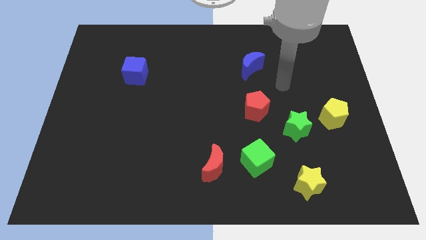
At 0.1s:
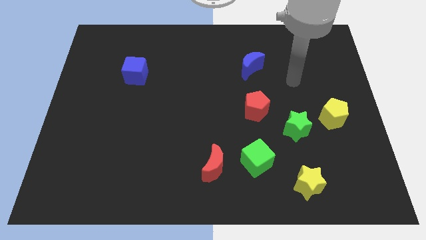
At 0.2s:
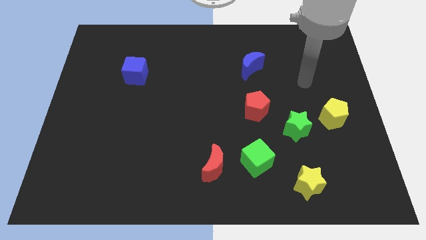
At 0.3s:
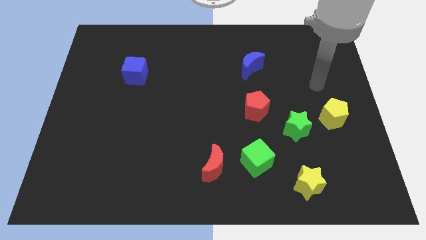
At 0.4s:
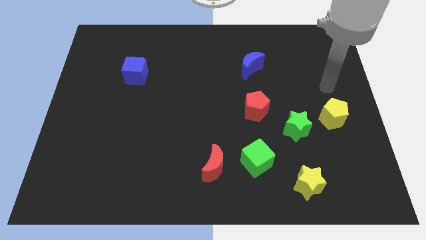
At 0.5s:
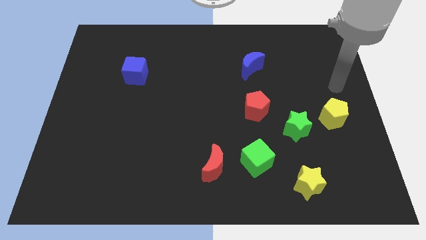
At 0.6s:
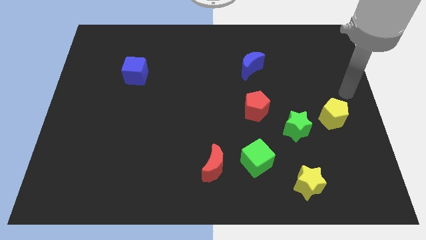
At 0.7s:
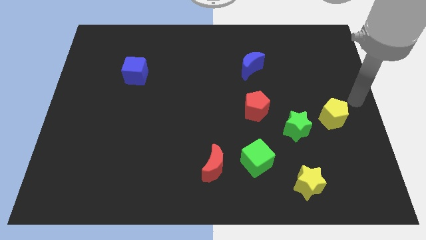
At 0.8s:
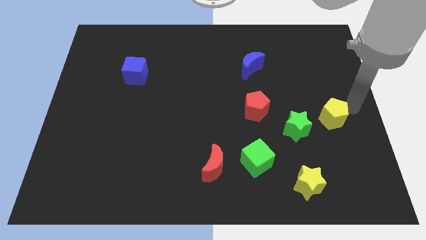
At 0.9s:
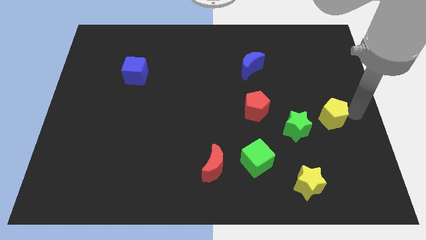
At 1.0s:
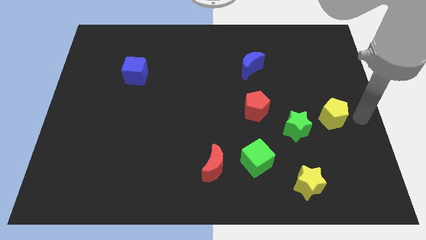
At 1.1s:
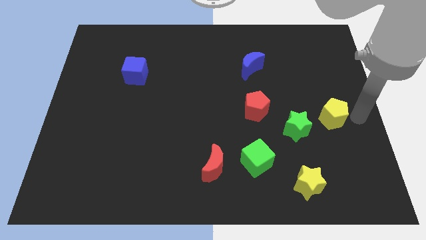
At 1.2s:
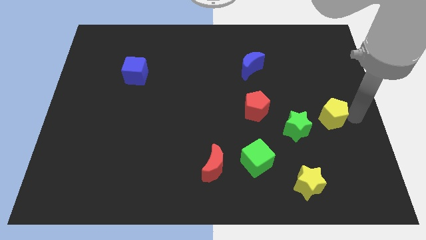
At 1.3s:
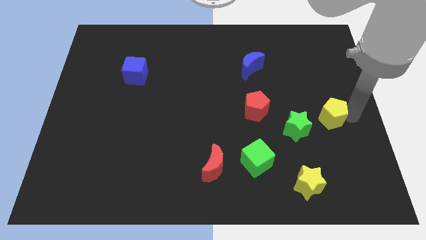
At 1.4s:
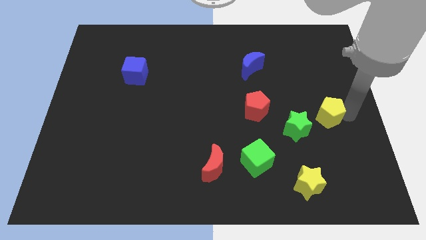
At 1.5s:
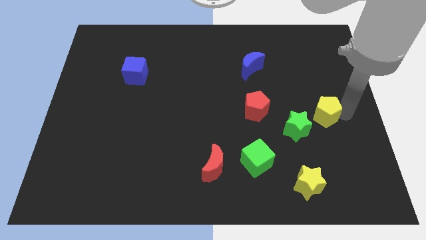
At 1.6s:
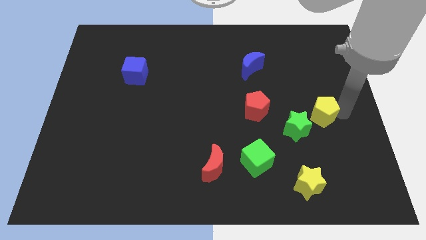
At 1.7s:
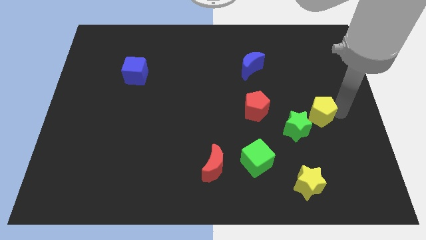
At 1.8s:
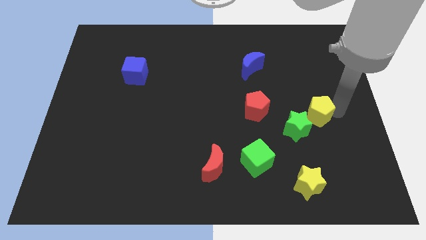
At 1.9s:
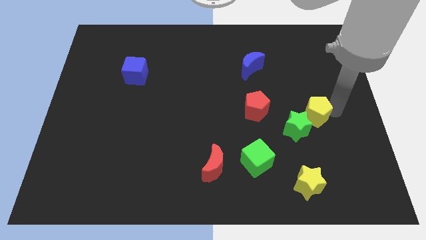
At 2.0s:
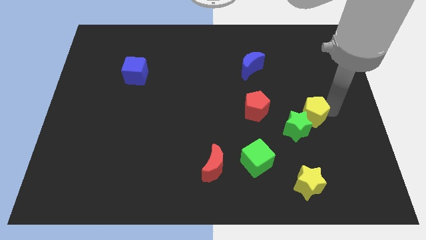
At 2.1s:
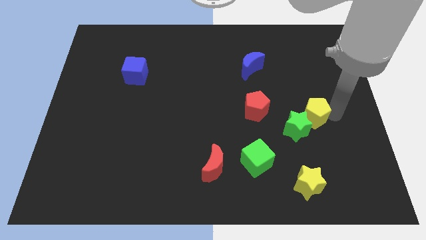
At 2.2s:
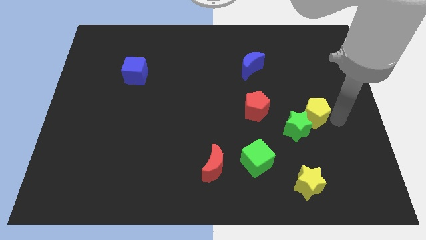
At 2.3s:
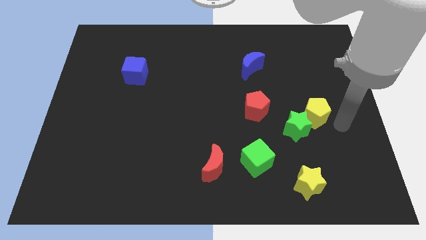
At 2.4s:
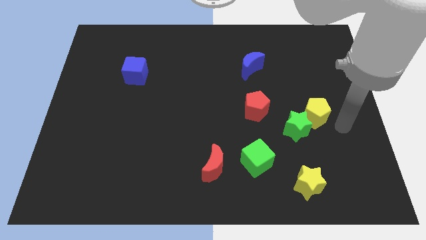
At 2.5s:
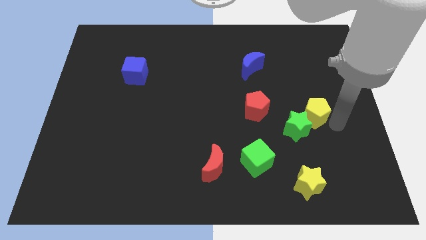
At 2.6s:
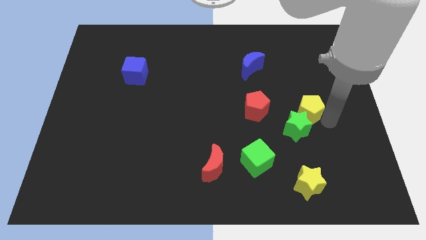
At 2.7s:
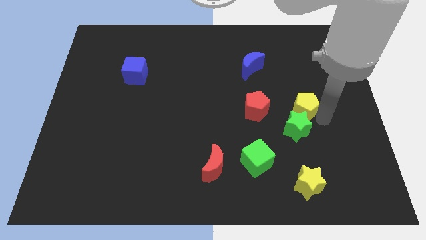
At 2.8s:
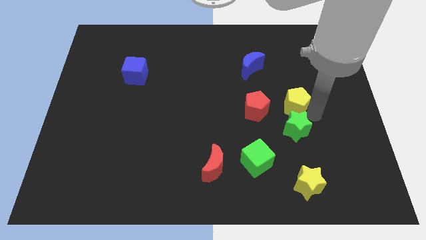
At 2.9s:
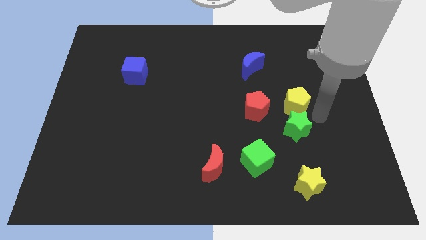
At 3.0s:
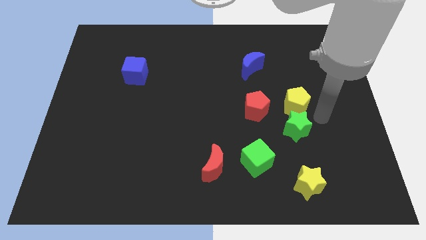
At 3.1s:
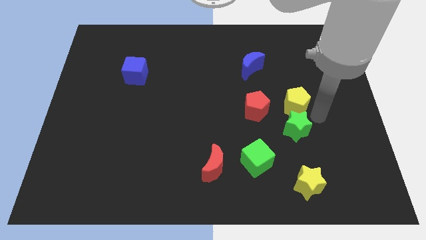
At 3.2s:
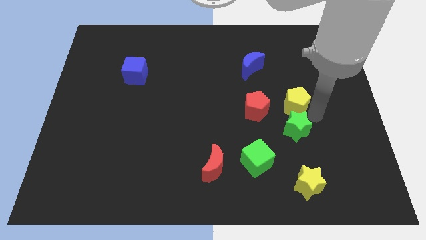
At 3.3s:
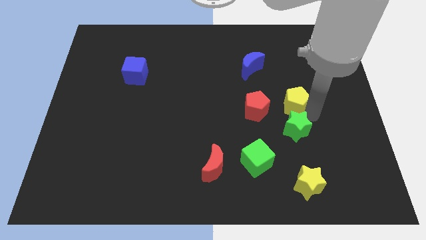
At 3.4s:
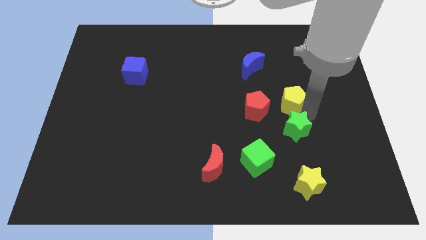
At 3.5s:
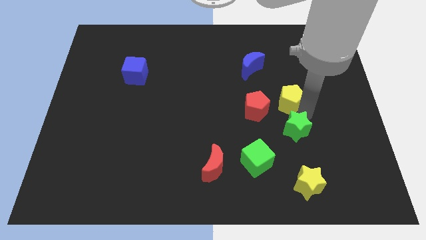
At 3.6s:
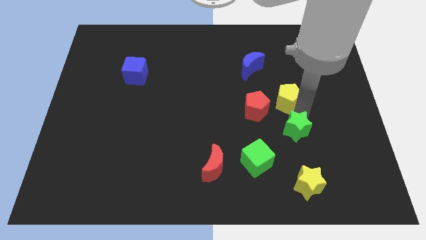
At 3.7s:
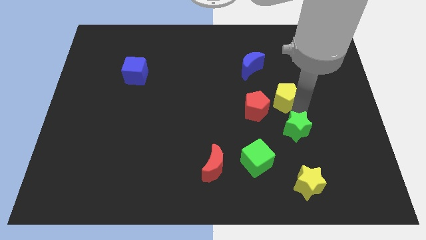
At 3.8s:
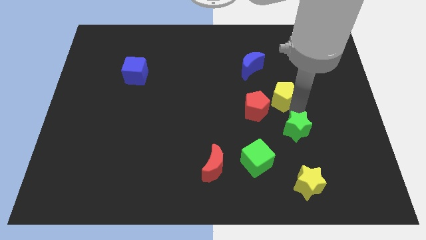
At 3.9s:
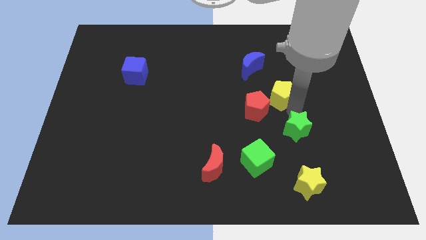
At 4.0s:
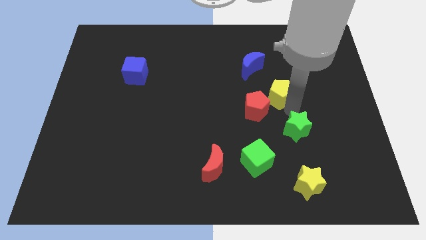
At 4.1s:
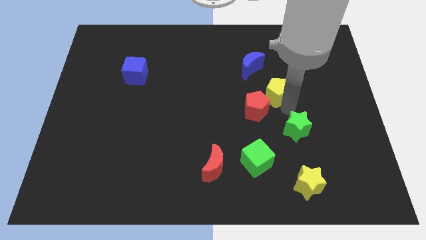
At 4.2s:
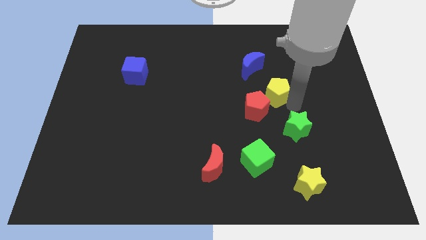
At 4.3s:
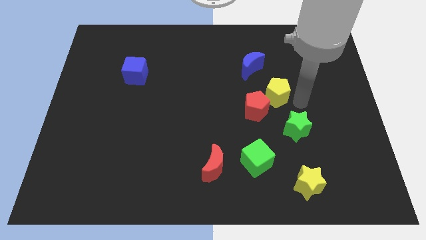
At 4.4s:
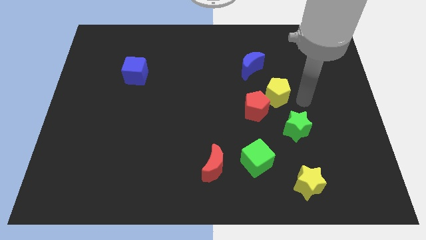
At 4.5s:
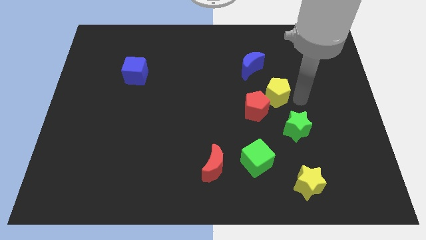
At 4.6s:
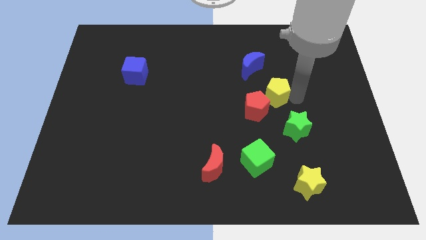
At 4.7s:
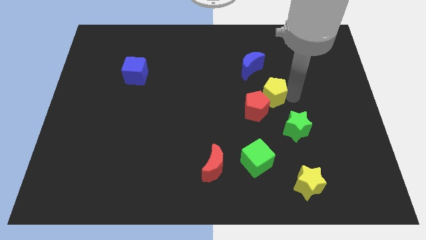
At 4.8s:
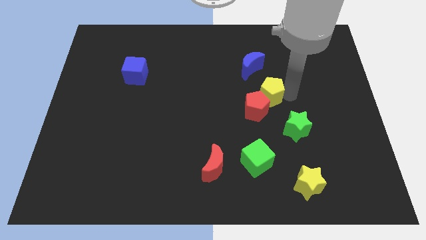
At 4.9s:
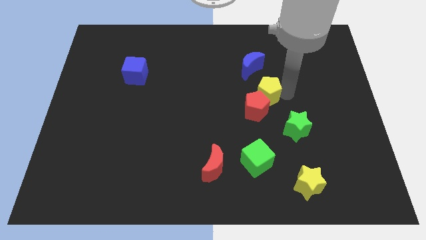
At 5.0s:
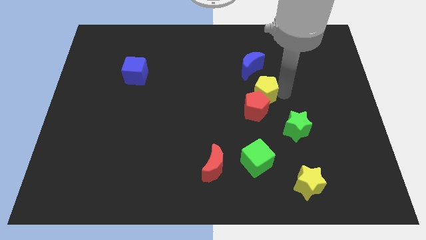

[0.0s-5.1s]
put the yellow pentagon to the center

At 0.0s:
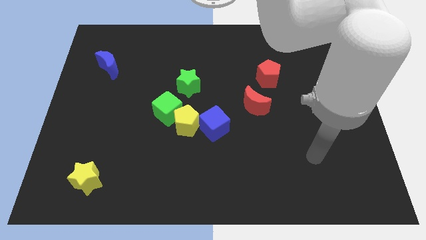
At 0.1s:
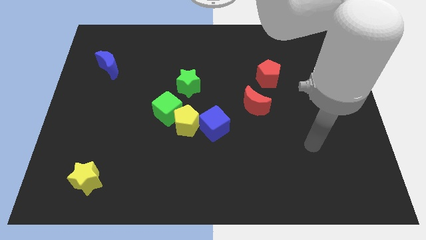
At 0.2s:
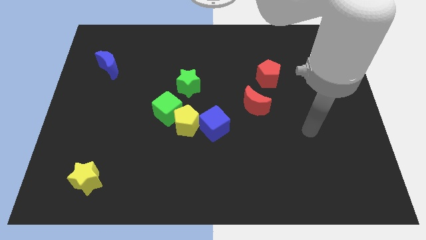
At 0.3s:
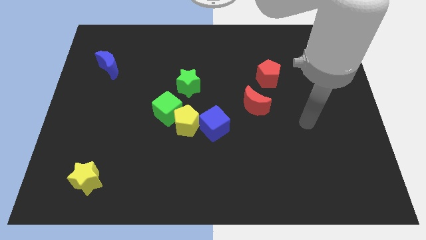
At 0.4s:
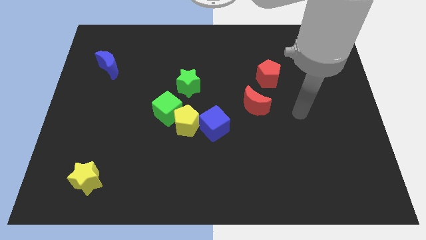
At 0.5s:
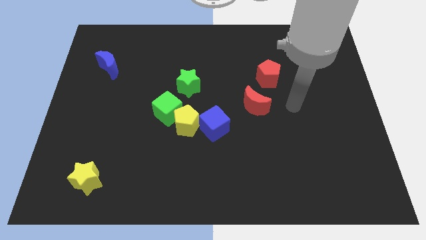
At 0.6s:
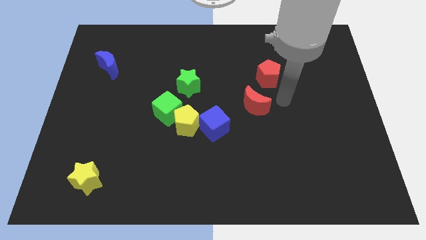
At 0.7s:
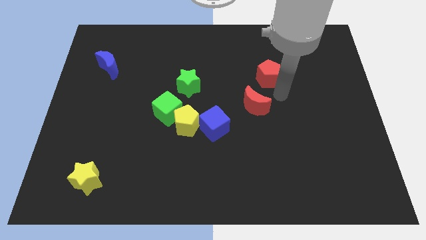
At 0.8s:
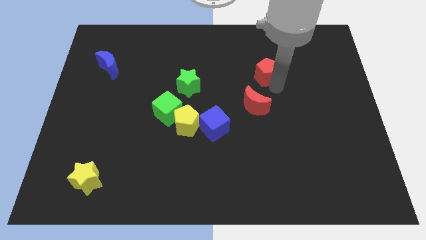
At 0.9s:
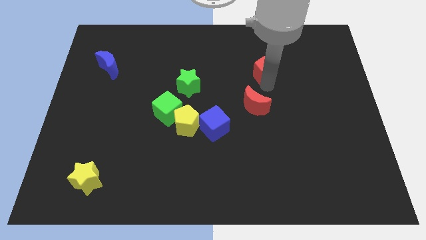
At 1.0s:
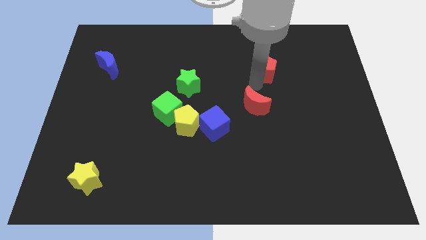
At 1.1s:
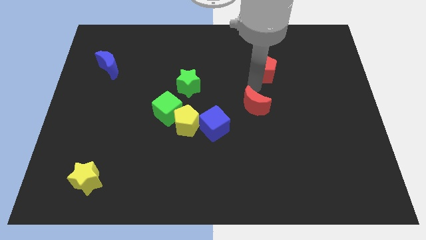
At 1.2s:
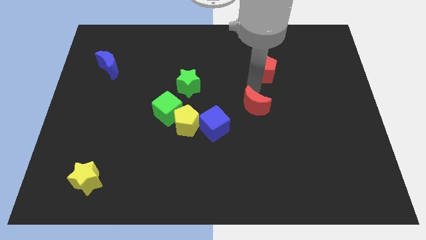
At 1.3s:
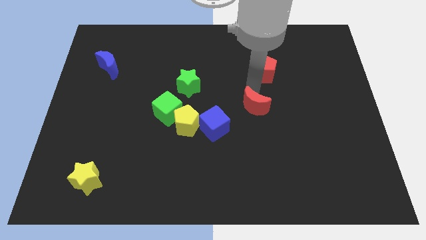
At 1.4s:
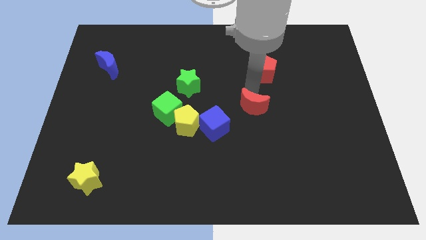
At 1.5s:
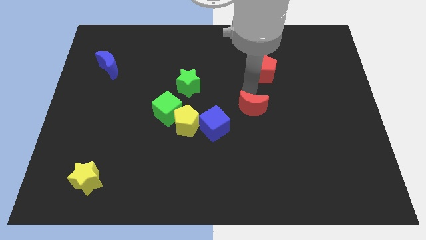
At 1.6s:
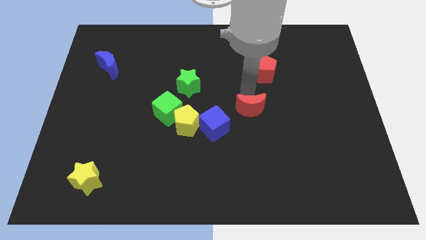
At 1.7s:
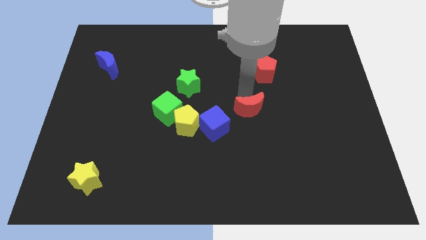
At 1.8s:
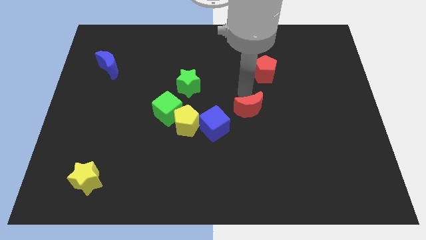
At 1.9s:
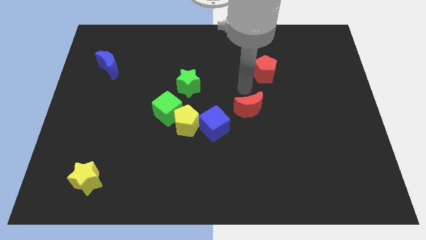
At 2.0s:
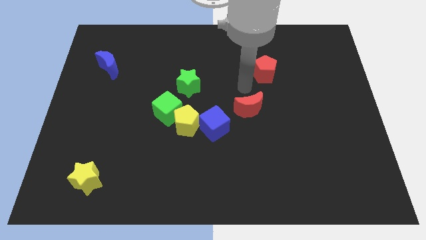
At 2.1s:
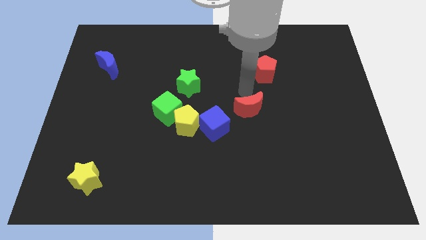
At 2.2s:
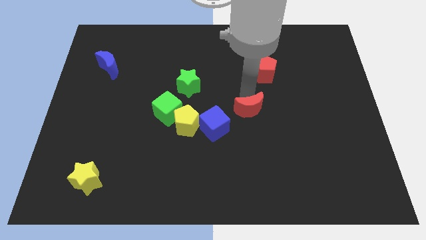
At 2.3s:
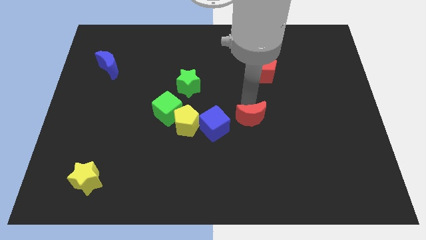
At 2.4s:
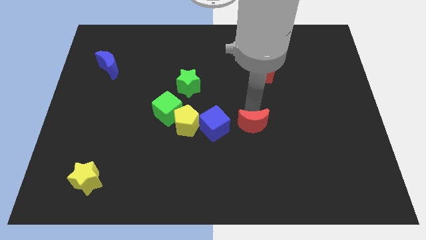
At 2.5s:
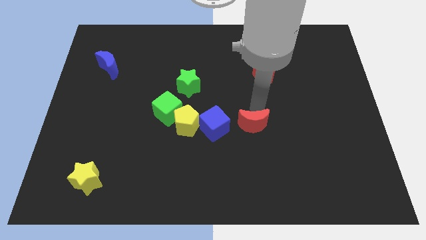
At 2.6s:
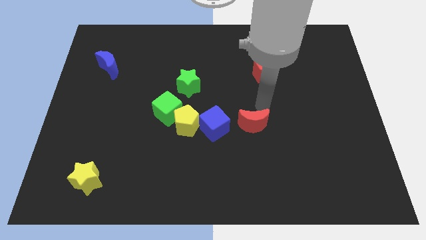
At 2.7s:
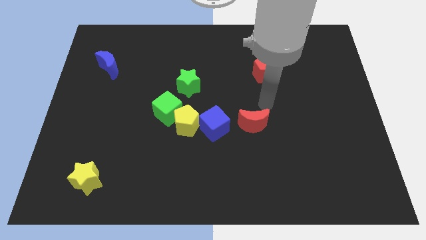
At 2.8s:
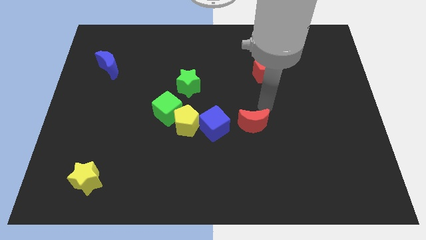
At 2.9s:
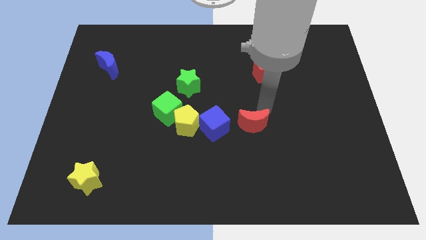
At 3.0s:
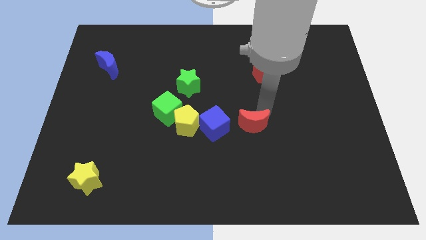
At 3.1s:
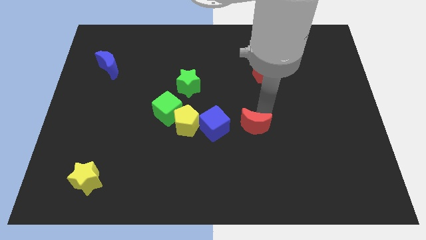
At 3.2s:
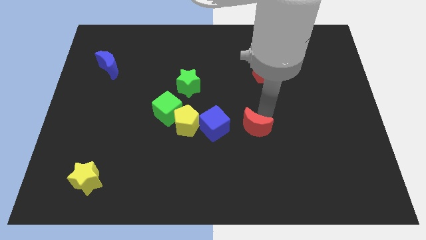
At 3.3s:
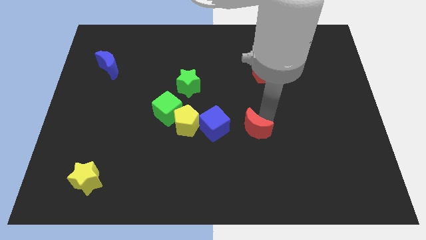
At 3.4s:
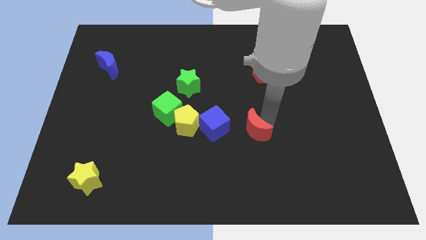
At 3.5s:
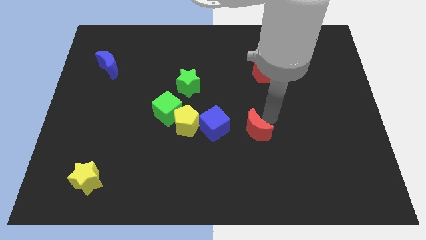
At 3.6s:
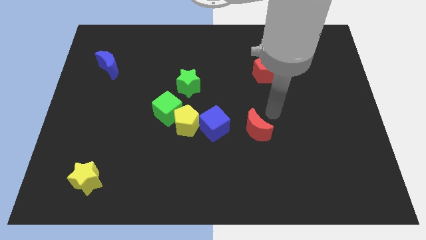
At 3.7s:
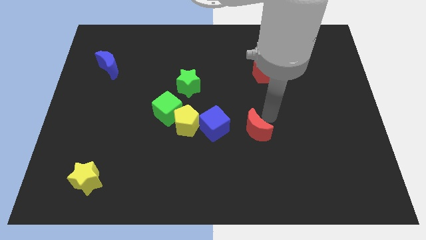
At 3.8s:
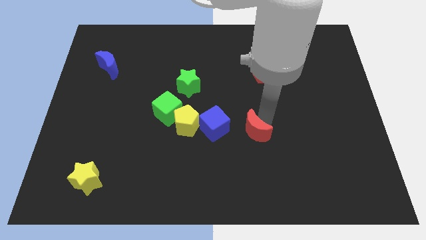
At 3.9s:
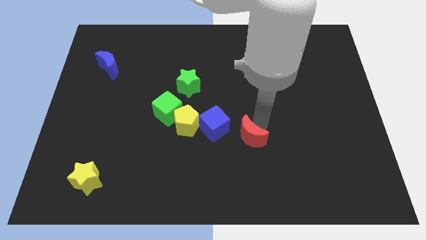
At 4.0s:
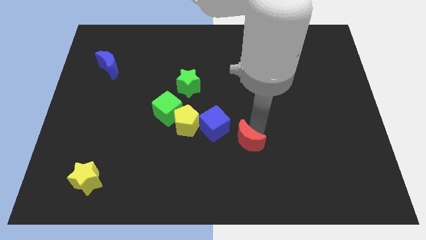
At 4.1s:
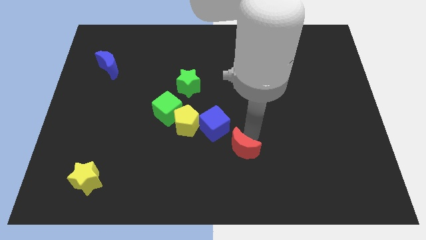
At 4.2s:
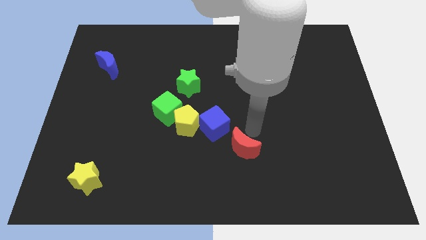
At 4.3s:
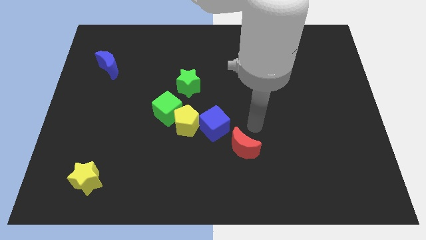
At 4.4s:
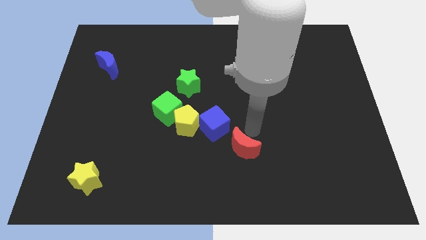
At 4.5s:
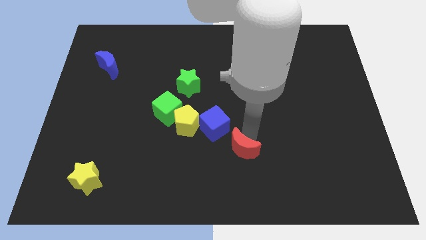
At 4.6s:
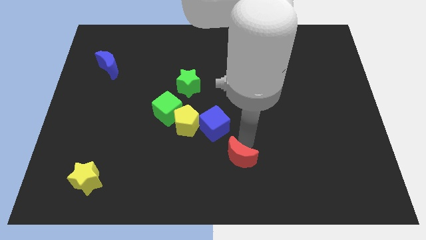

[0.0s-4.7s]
move the red moon to the bottom side
